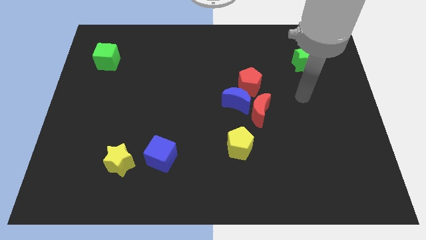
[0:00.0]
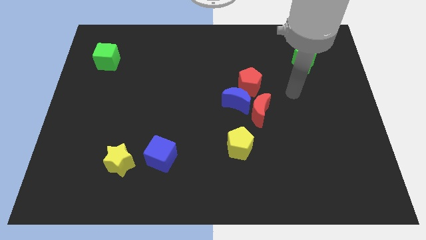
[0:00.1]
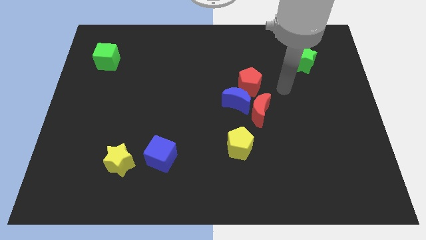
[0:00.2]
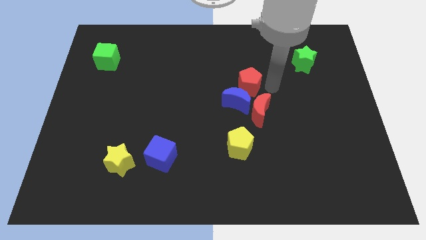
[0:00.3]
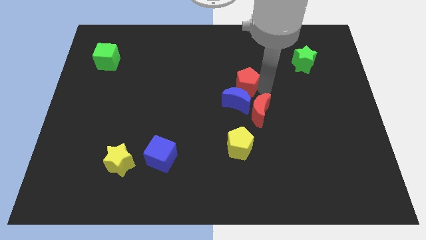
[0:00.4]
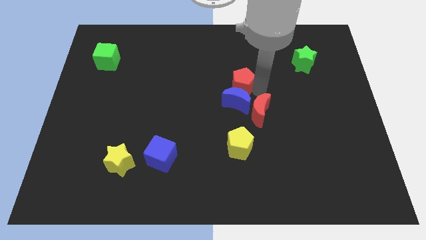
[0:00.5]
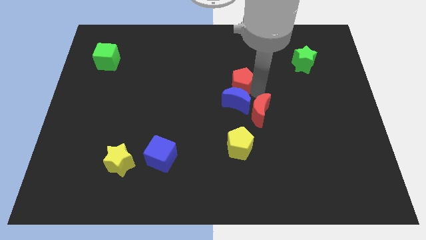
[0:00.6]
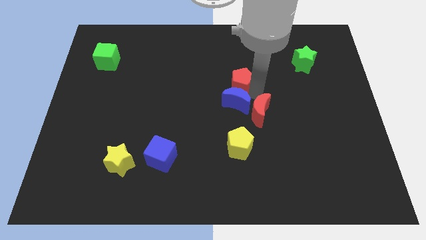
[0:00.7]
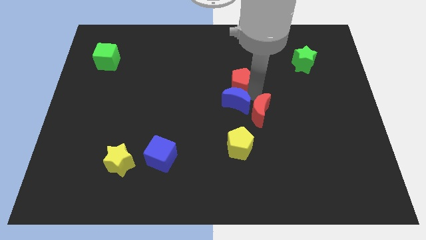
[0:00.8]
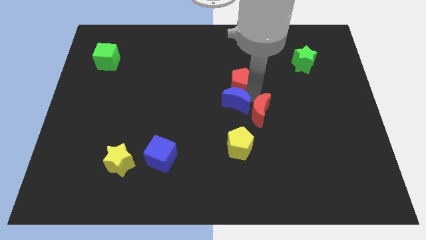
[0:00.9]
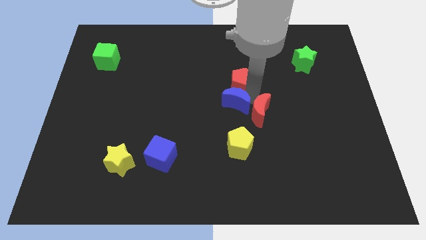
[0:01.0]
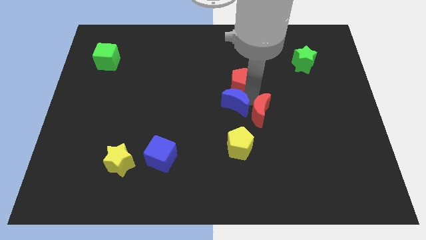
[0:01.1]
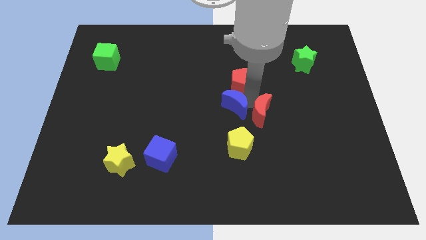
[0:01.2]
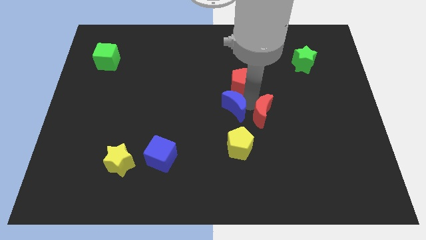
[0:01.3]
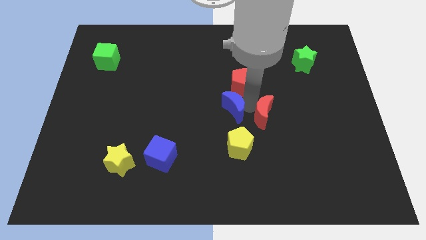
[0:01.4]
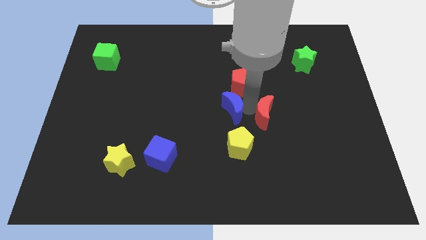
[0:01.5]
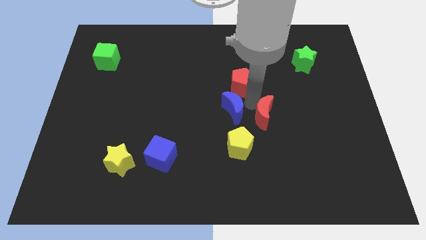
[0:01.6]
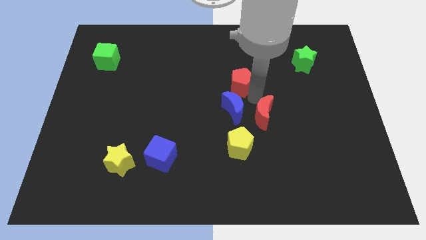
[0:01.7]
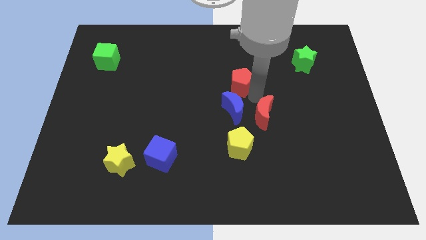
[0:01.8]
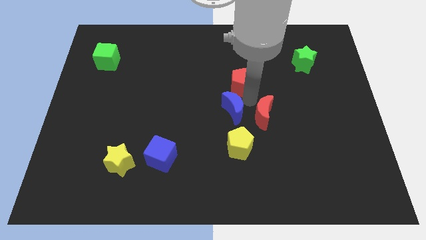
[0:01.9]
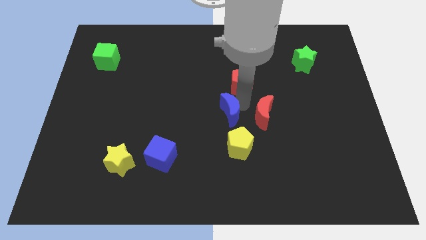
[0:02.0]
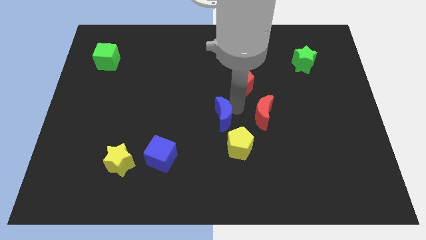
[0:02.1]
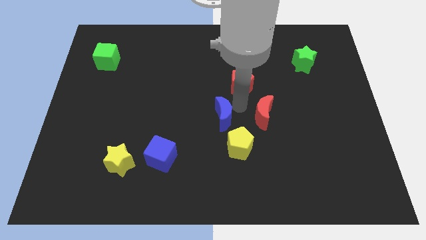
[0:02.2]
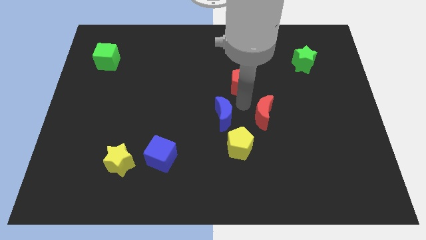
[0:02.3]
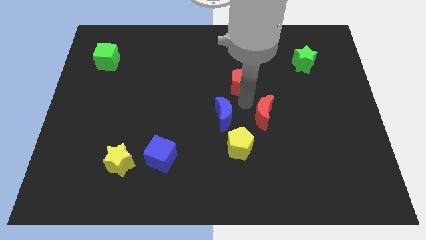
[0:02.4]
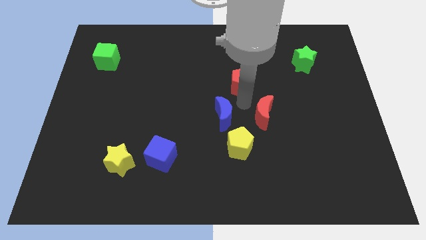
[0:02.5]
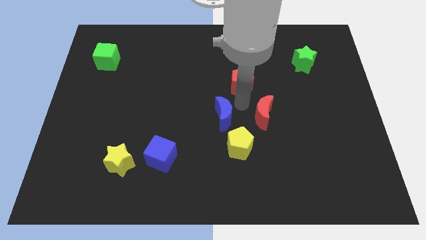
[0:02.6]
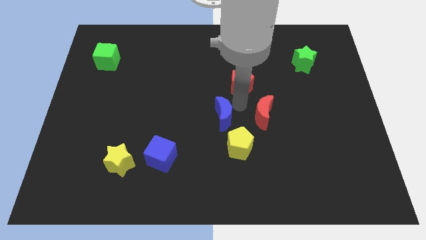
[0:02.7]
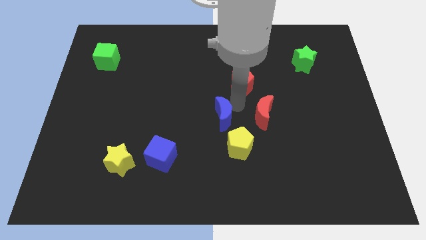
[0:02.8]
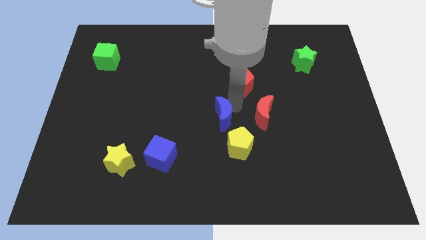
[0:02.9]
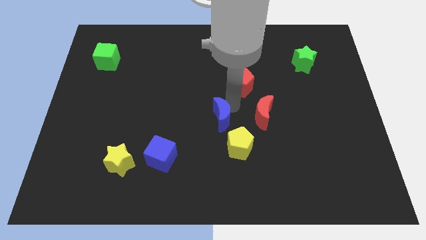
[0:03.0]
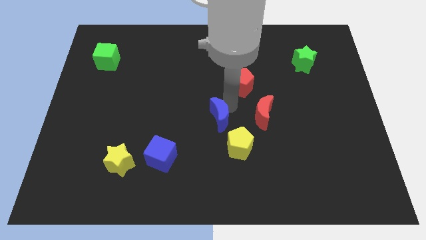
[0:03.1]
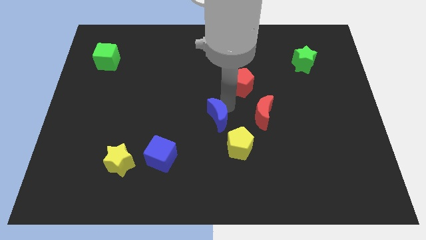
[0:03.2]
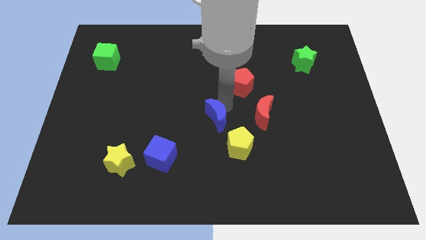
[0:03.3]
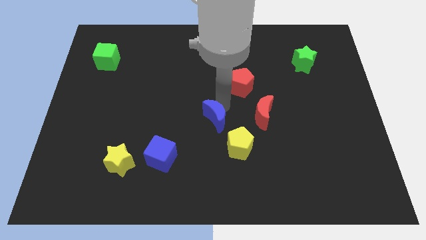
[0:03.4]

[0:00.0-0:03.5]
separate the blue moon from the red moon and red pentagon

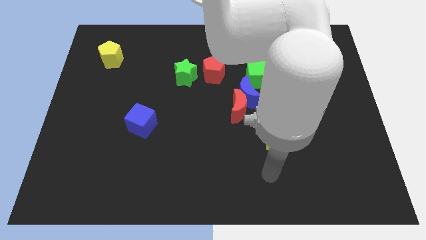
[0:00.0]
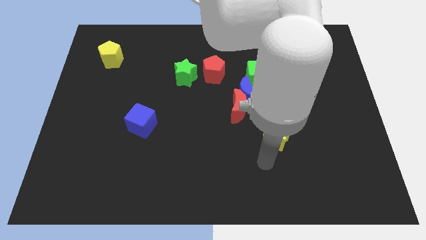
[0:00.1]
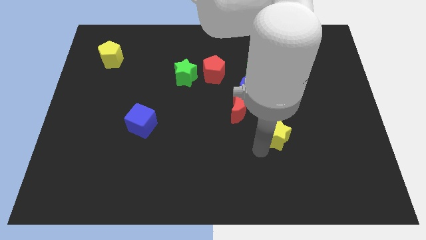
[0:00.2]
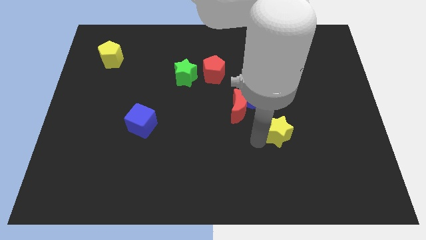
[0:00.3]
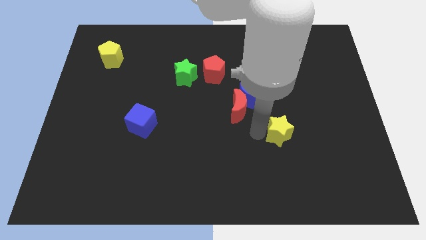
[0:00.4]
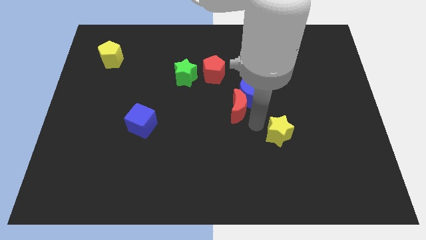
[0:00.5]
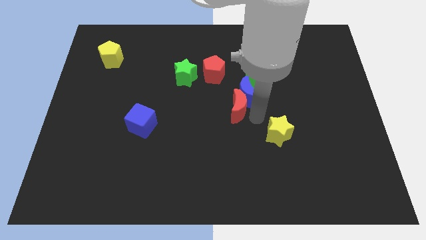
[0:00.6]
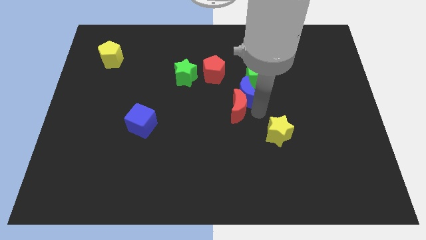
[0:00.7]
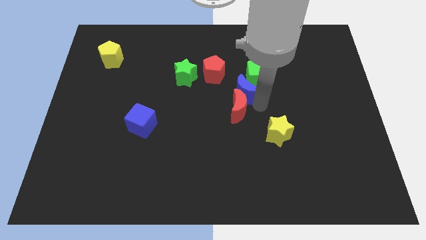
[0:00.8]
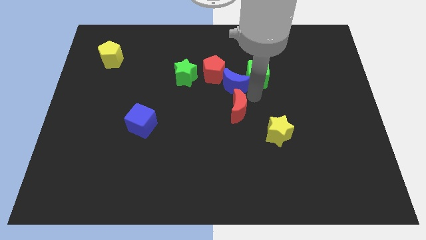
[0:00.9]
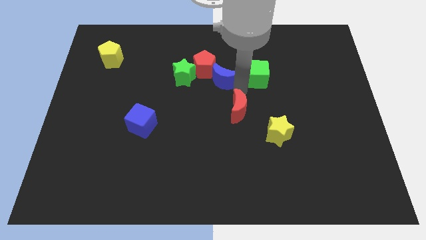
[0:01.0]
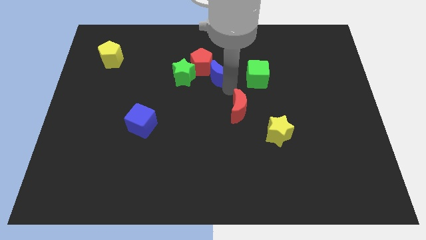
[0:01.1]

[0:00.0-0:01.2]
pull the red moon apart from the blue moon

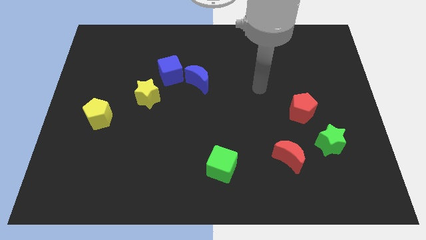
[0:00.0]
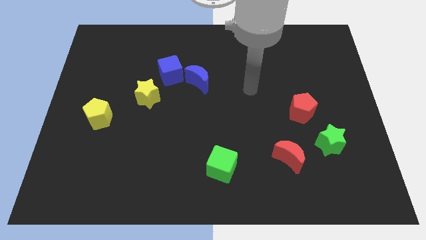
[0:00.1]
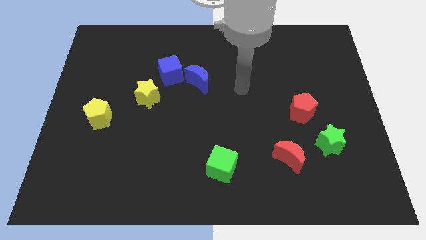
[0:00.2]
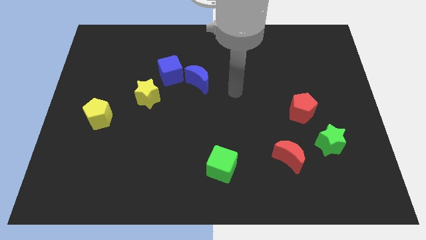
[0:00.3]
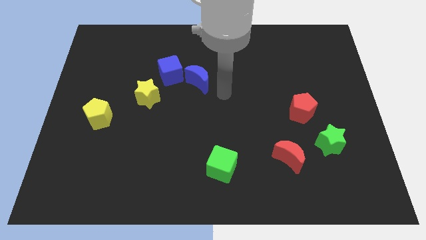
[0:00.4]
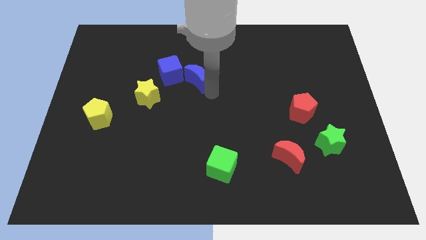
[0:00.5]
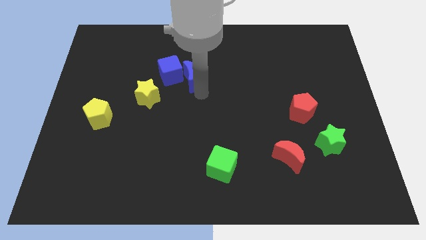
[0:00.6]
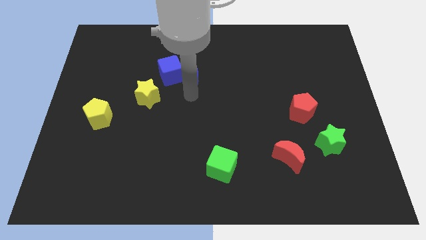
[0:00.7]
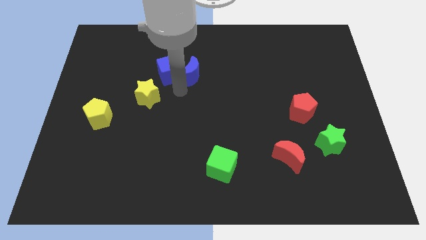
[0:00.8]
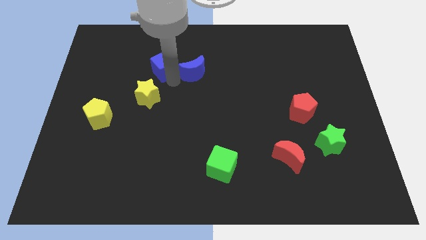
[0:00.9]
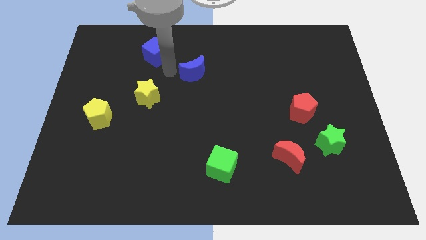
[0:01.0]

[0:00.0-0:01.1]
pull the blue moon apart from the blue cube

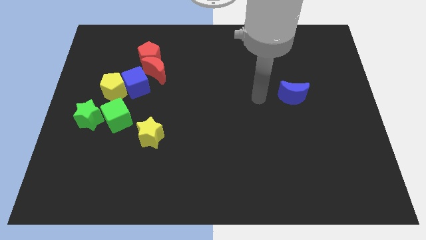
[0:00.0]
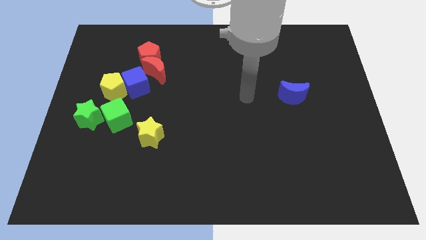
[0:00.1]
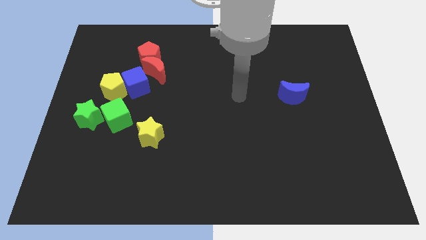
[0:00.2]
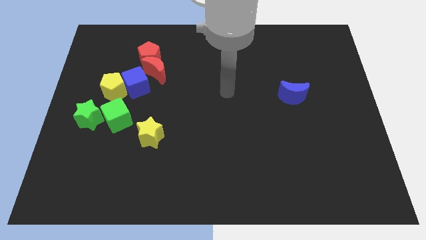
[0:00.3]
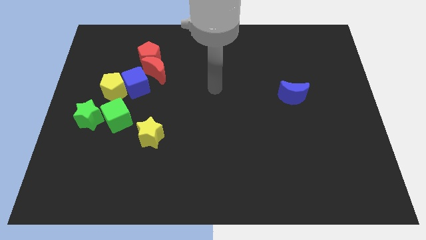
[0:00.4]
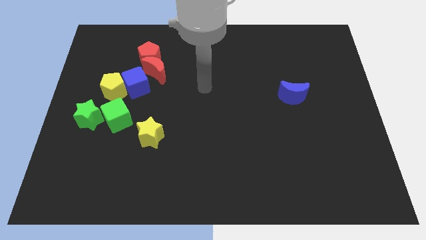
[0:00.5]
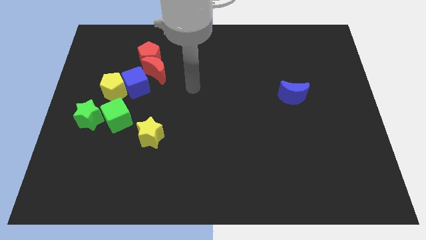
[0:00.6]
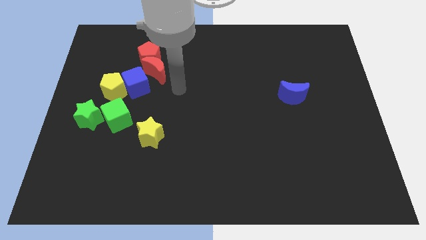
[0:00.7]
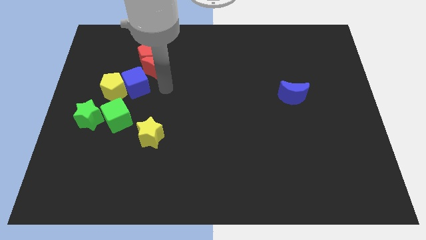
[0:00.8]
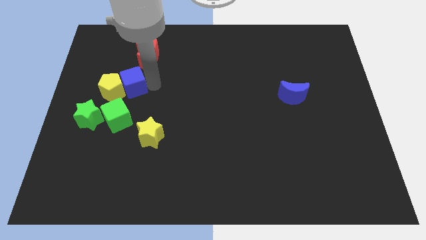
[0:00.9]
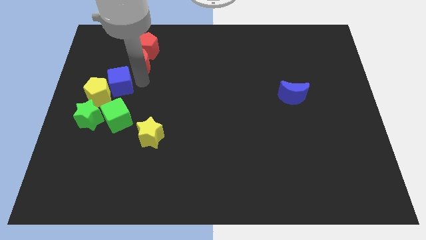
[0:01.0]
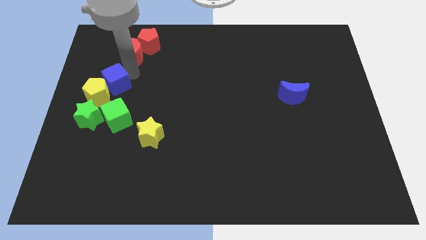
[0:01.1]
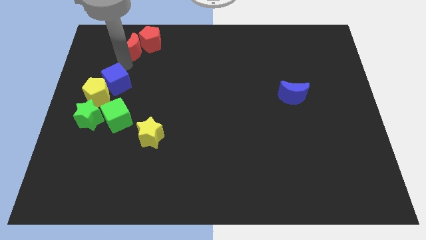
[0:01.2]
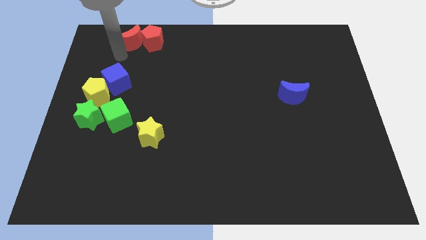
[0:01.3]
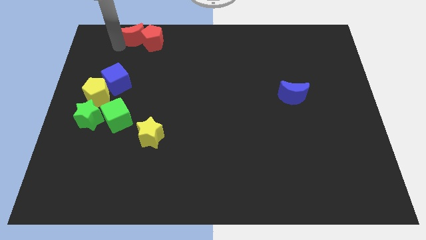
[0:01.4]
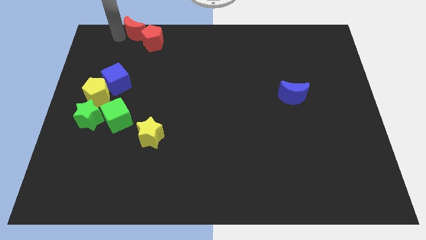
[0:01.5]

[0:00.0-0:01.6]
move the red moon away from the red pentagon and blue cube

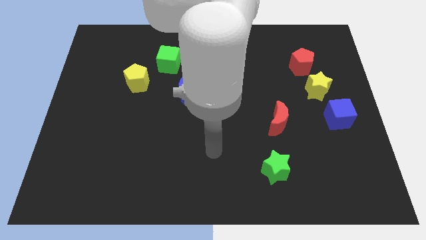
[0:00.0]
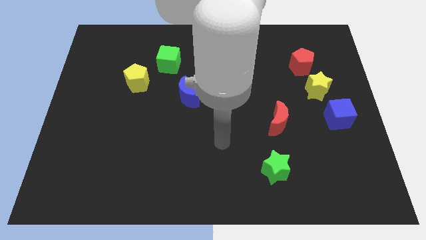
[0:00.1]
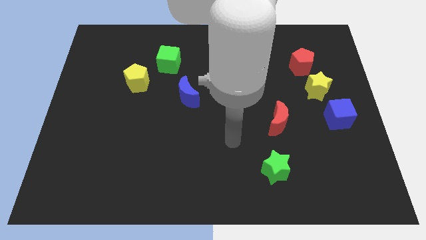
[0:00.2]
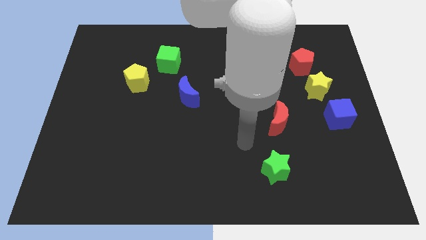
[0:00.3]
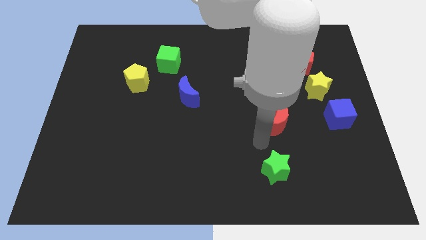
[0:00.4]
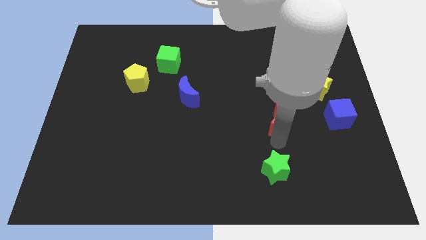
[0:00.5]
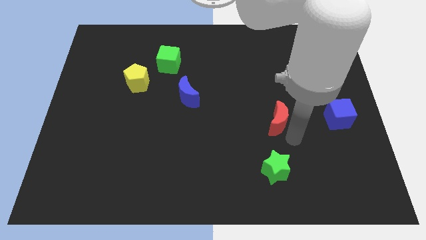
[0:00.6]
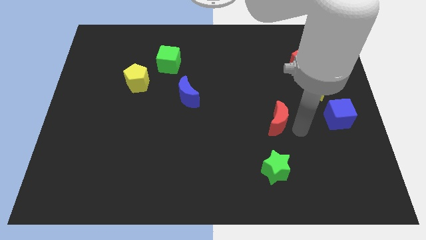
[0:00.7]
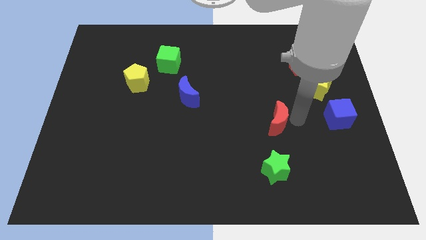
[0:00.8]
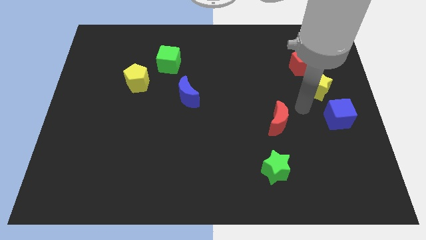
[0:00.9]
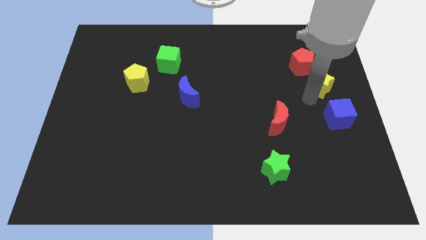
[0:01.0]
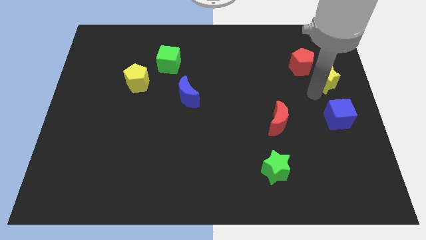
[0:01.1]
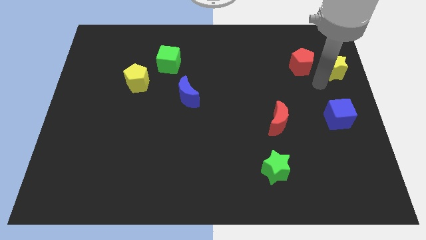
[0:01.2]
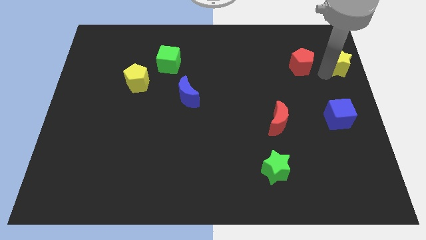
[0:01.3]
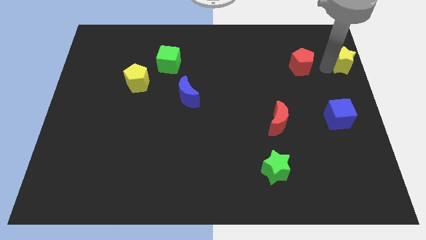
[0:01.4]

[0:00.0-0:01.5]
pull the red pentagon apart from the yellow star

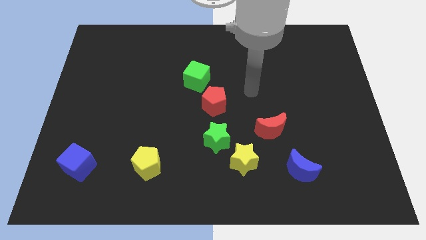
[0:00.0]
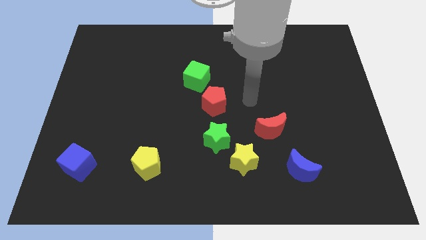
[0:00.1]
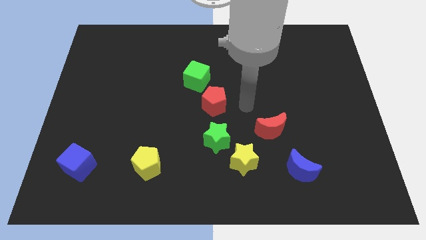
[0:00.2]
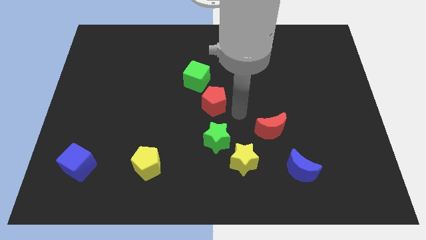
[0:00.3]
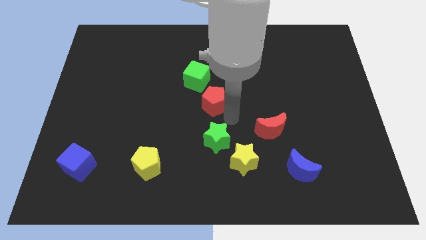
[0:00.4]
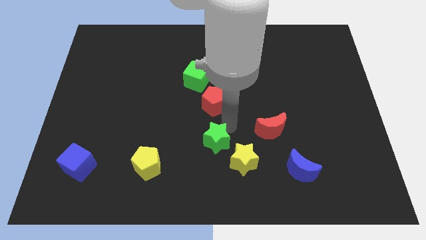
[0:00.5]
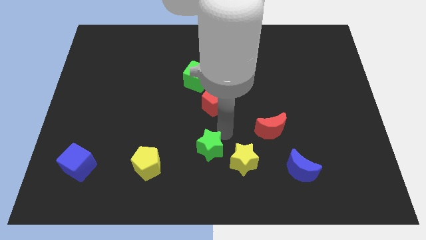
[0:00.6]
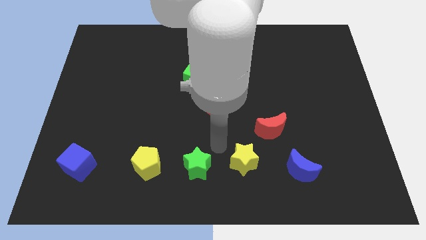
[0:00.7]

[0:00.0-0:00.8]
pull the yellow star apart from the green star
